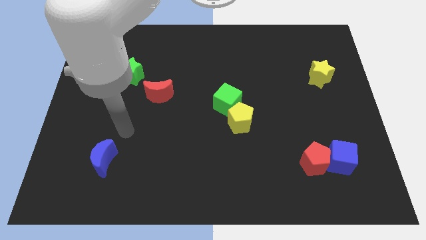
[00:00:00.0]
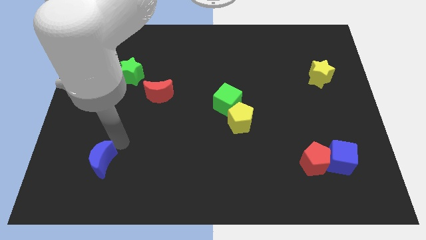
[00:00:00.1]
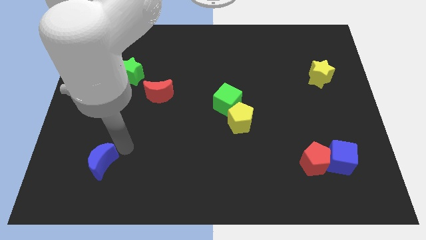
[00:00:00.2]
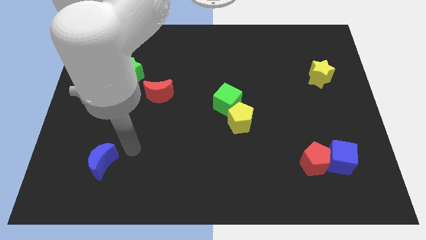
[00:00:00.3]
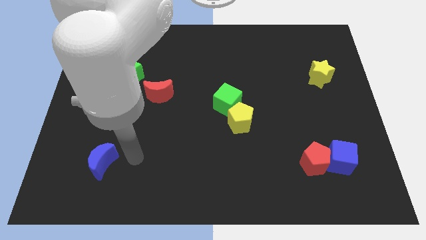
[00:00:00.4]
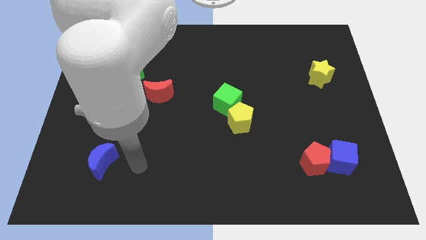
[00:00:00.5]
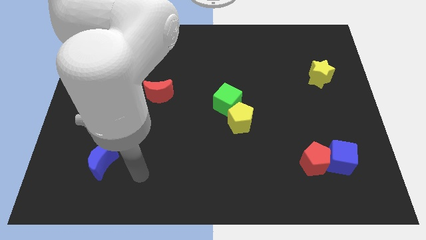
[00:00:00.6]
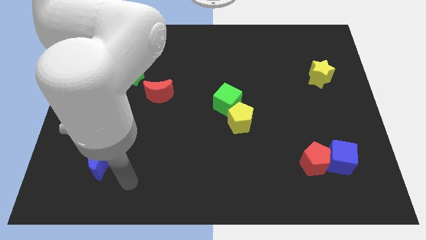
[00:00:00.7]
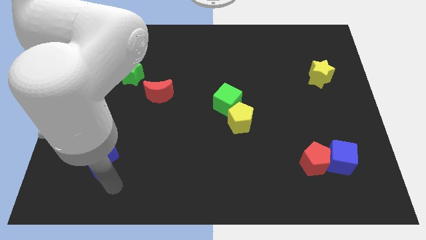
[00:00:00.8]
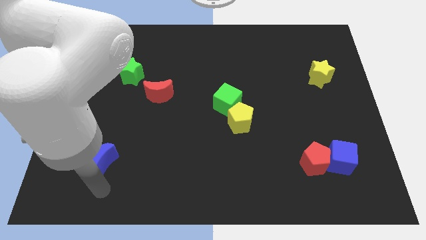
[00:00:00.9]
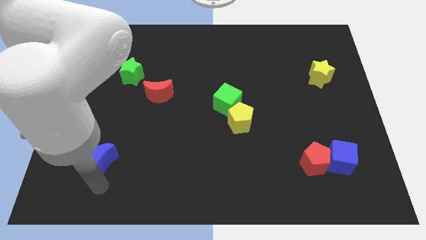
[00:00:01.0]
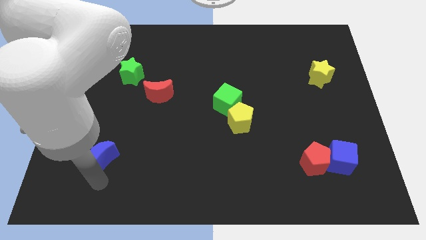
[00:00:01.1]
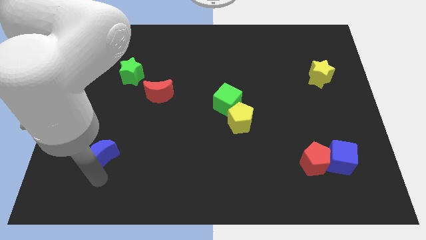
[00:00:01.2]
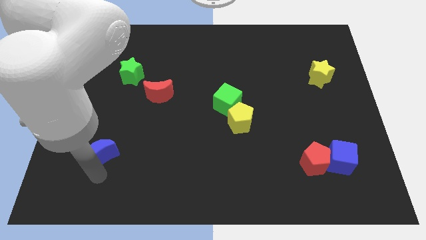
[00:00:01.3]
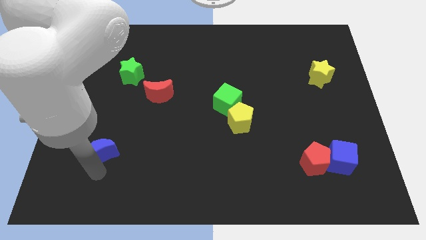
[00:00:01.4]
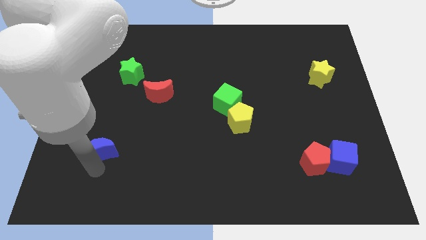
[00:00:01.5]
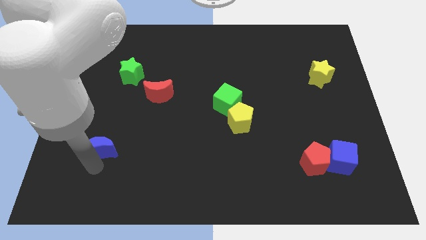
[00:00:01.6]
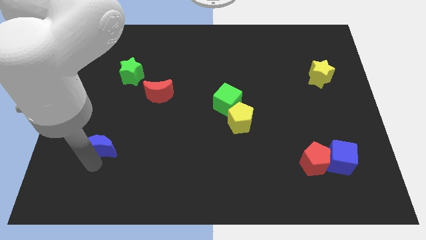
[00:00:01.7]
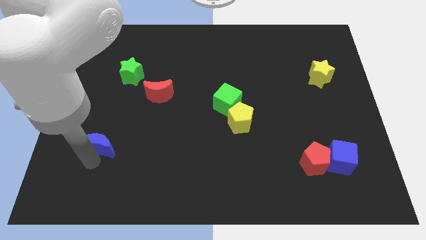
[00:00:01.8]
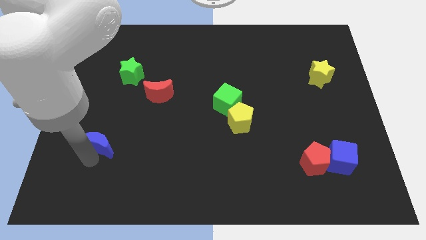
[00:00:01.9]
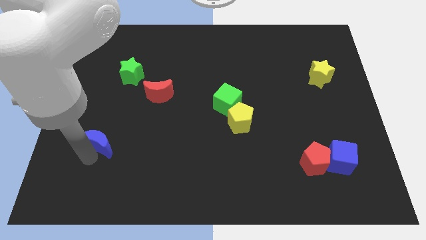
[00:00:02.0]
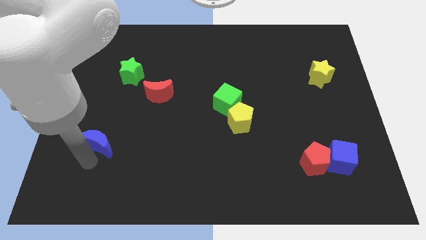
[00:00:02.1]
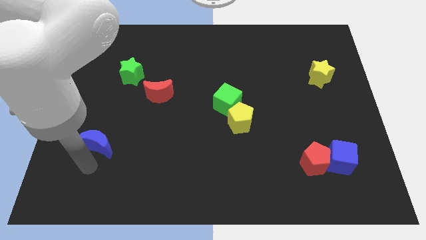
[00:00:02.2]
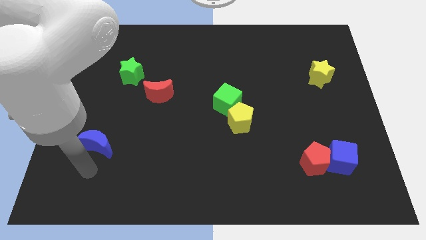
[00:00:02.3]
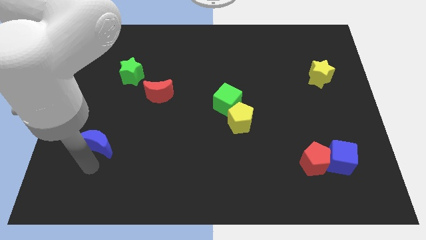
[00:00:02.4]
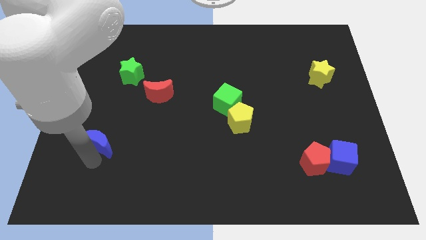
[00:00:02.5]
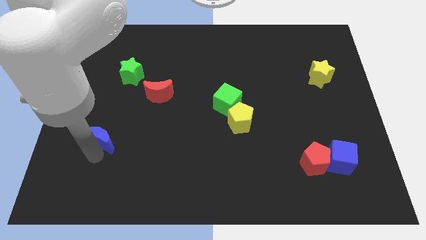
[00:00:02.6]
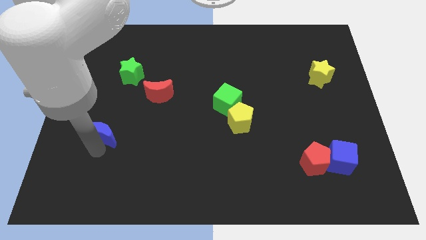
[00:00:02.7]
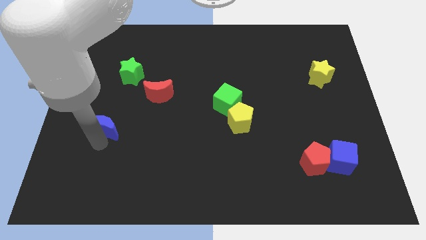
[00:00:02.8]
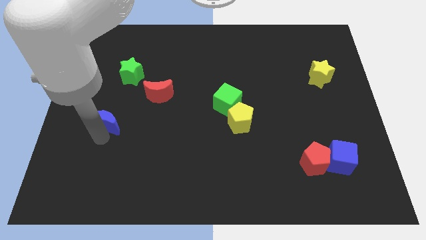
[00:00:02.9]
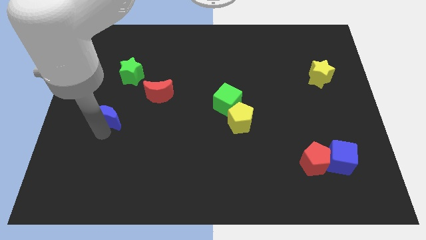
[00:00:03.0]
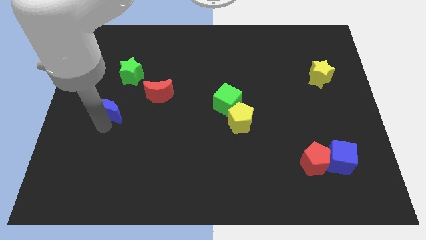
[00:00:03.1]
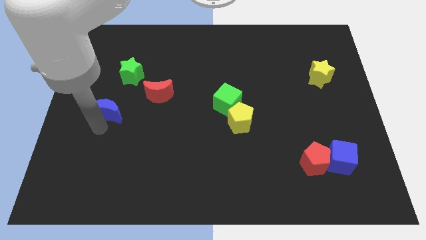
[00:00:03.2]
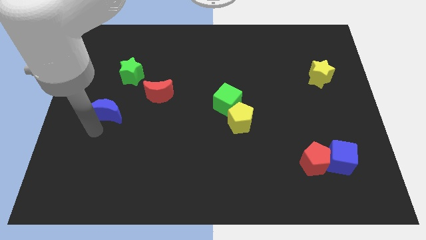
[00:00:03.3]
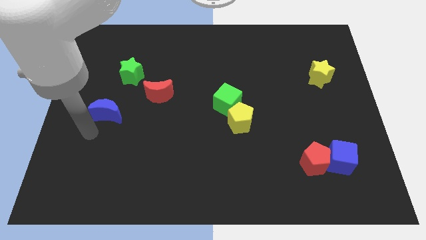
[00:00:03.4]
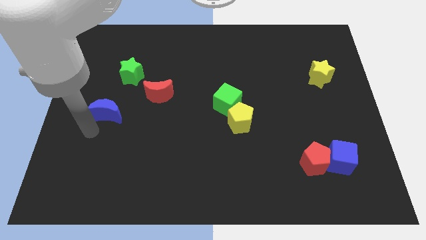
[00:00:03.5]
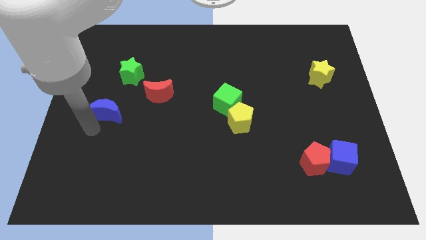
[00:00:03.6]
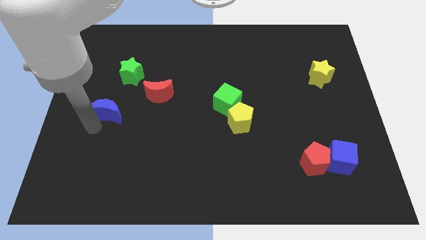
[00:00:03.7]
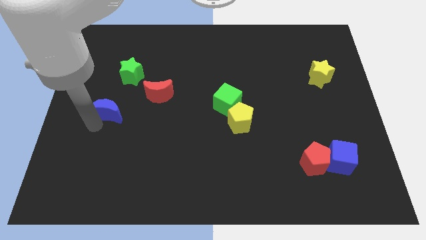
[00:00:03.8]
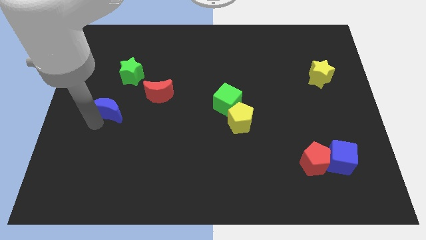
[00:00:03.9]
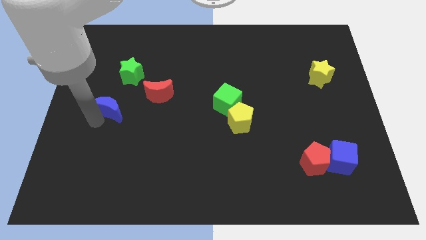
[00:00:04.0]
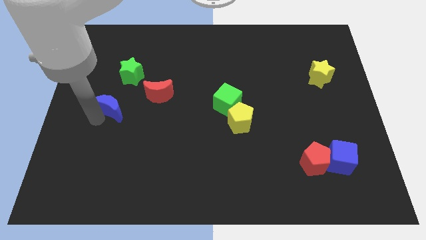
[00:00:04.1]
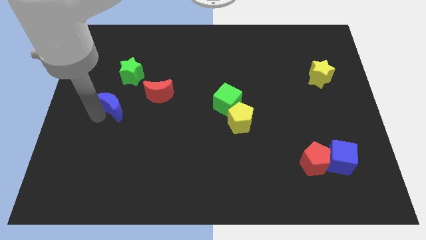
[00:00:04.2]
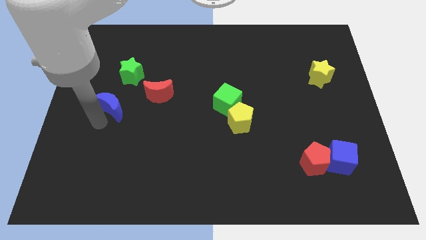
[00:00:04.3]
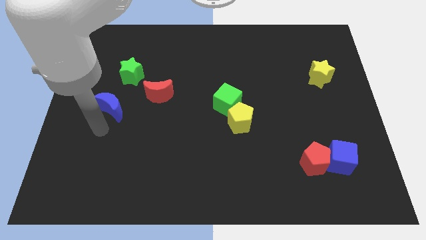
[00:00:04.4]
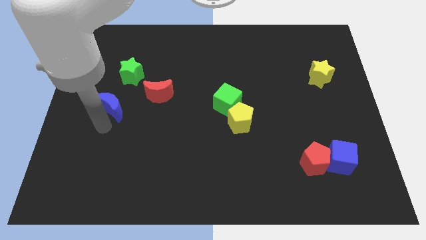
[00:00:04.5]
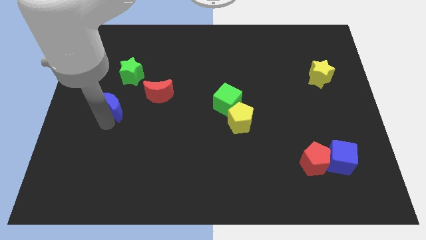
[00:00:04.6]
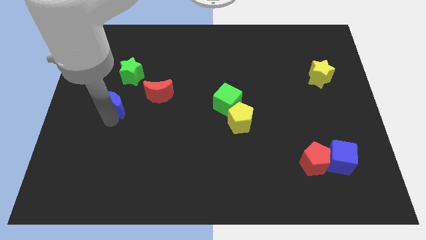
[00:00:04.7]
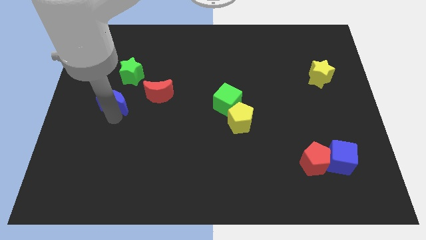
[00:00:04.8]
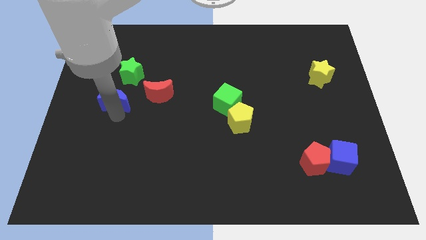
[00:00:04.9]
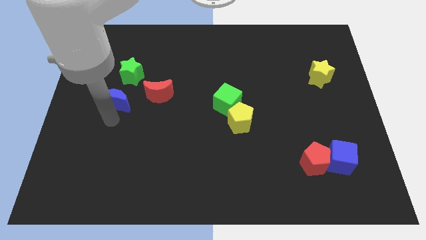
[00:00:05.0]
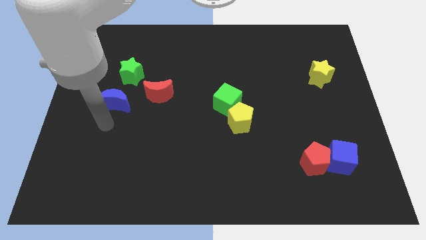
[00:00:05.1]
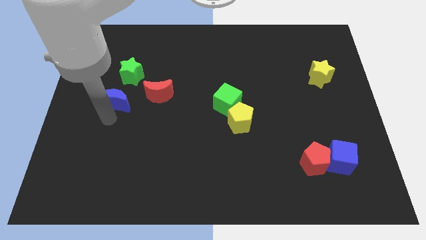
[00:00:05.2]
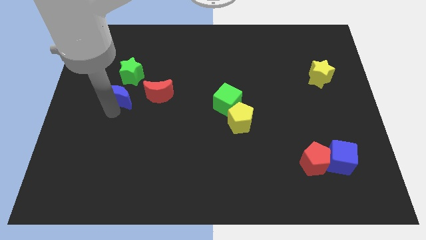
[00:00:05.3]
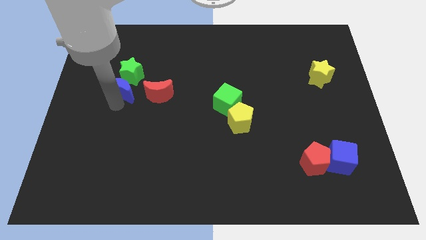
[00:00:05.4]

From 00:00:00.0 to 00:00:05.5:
put the blue moon towards the green star

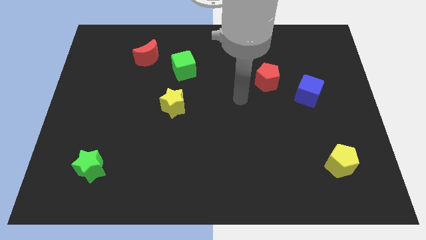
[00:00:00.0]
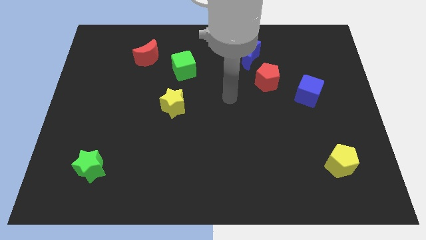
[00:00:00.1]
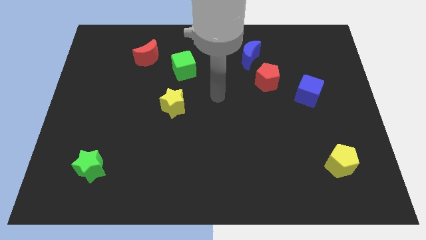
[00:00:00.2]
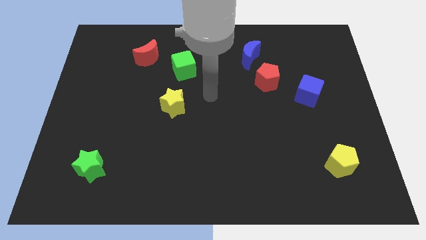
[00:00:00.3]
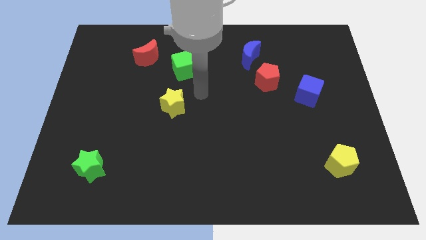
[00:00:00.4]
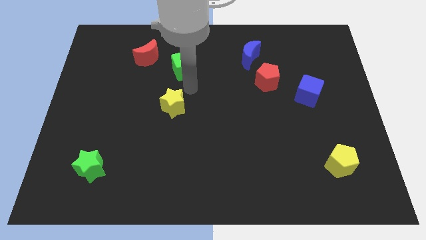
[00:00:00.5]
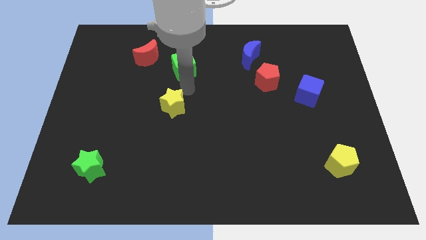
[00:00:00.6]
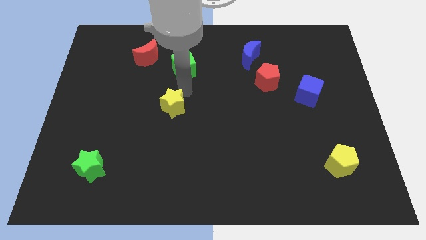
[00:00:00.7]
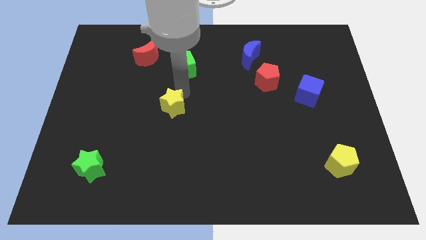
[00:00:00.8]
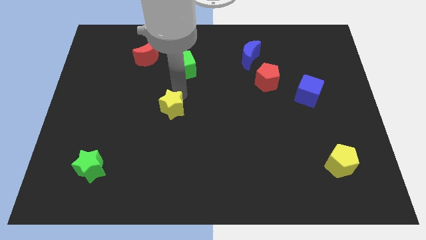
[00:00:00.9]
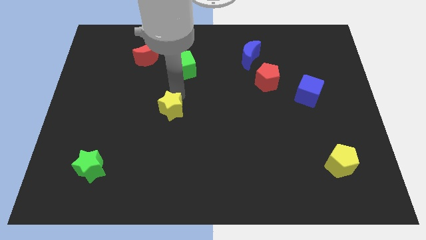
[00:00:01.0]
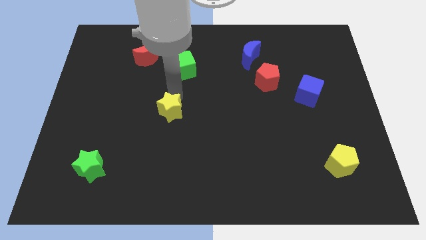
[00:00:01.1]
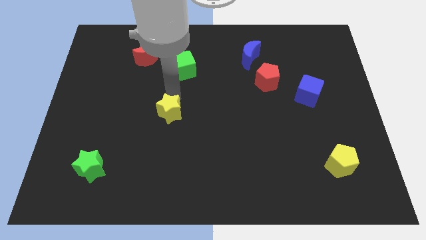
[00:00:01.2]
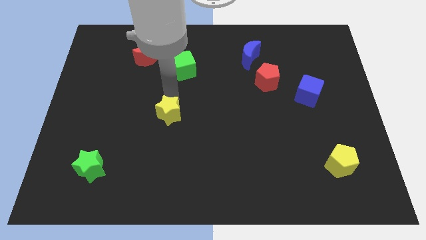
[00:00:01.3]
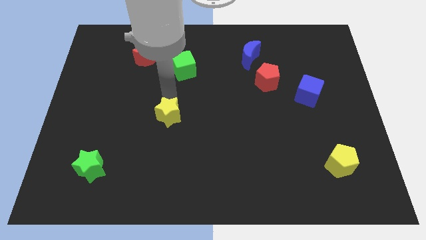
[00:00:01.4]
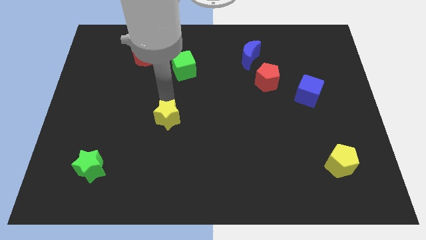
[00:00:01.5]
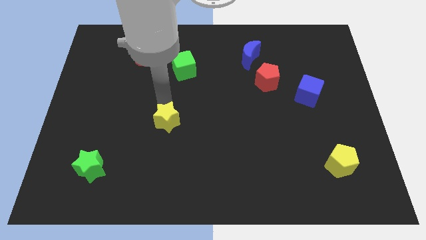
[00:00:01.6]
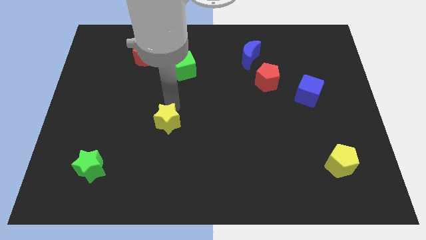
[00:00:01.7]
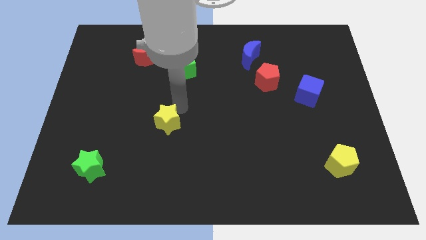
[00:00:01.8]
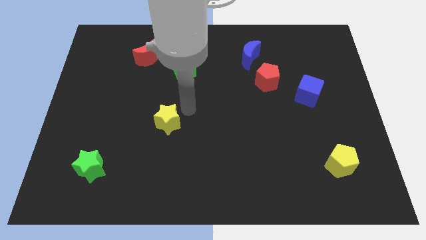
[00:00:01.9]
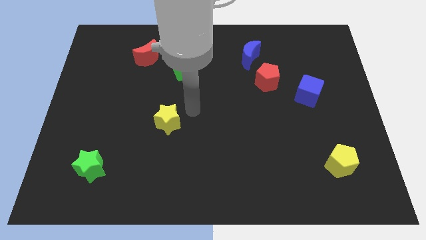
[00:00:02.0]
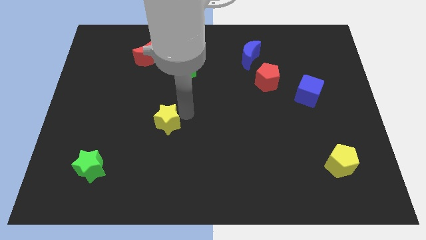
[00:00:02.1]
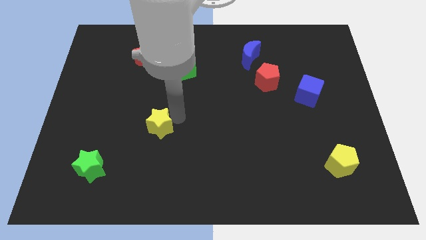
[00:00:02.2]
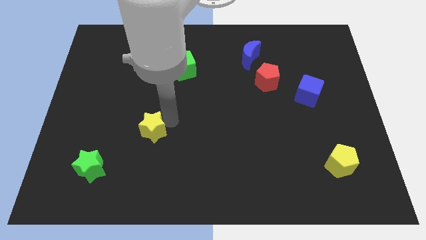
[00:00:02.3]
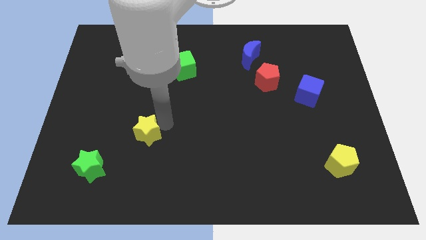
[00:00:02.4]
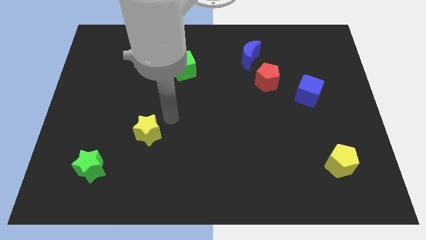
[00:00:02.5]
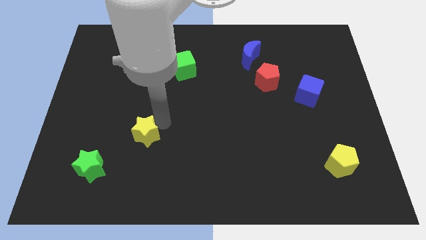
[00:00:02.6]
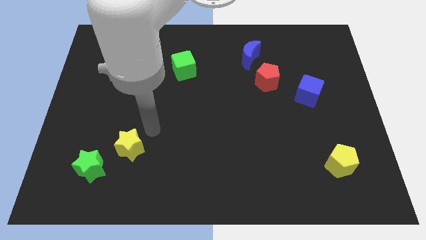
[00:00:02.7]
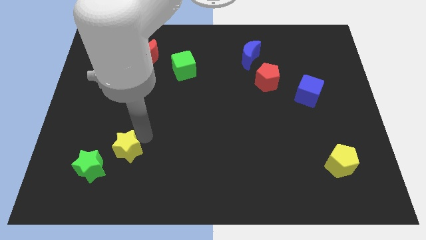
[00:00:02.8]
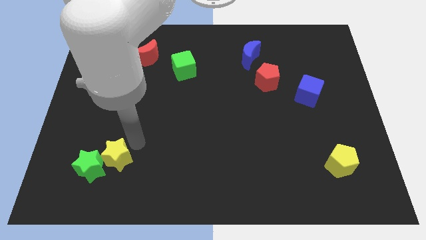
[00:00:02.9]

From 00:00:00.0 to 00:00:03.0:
move the yellow star towards the green star

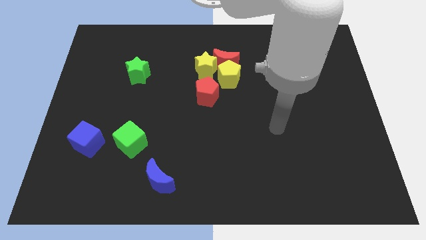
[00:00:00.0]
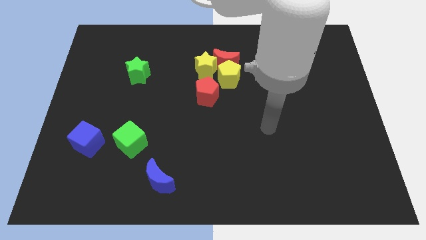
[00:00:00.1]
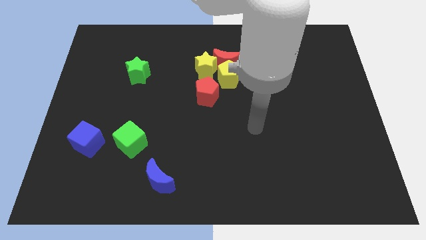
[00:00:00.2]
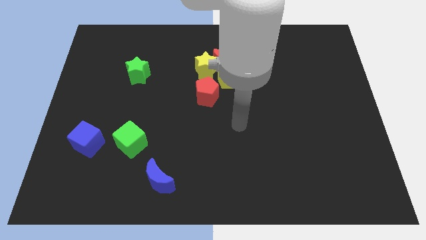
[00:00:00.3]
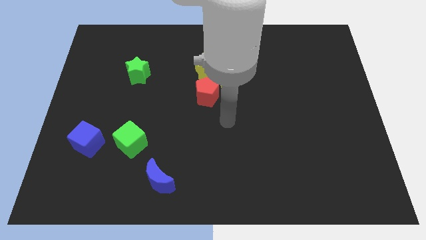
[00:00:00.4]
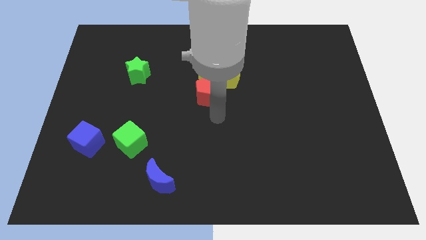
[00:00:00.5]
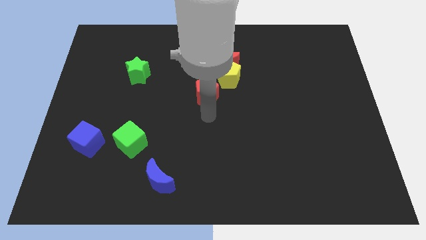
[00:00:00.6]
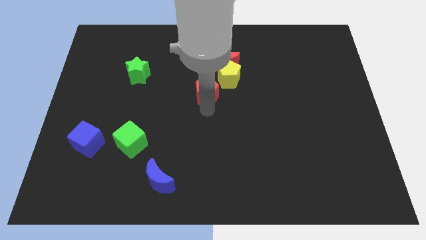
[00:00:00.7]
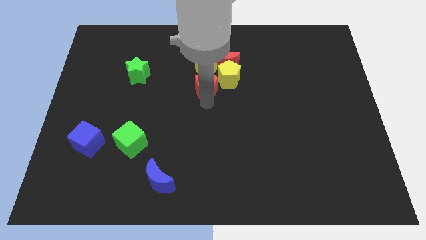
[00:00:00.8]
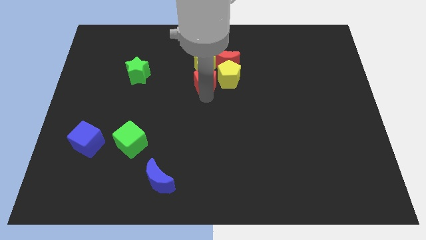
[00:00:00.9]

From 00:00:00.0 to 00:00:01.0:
slide the red pentagon towards the yellow star
